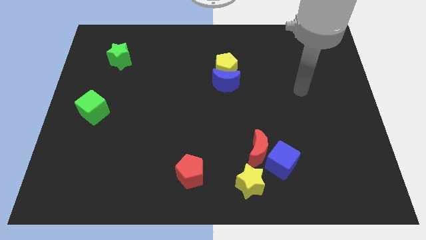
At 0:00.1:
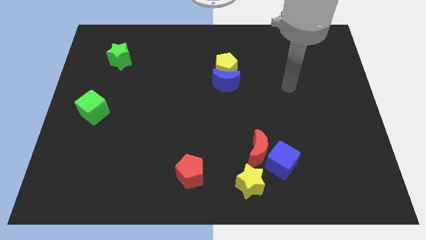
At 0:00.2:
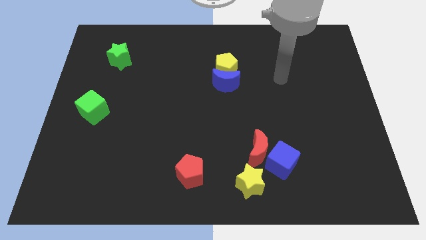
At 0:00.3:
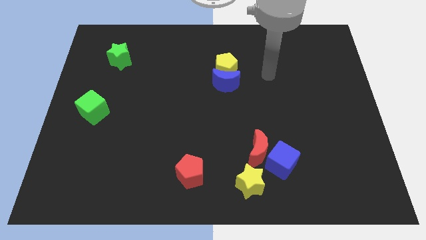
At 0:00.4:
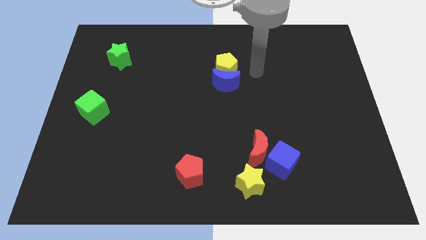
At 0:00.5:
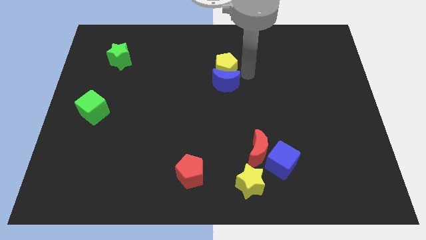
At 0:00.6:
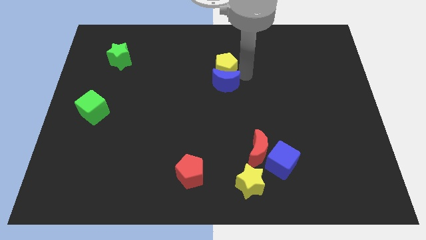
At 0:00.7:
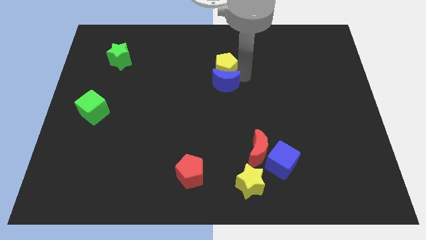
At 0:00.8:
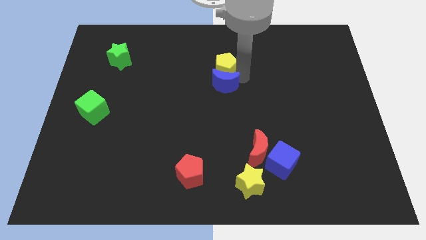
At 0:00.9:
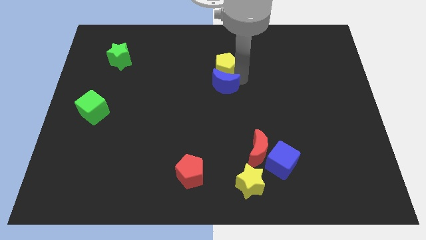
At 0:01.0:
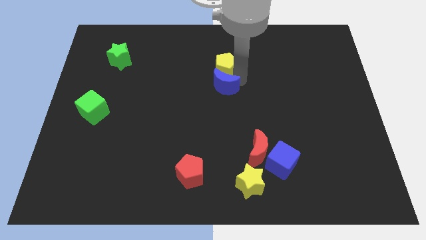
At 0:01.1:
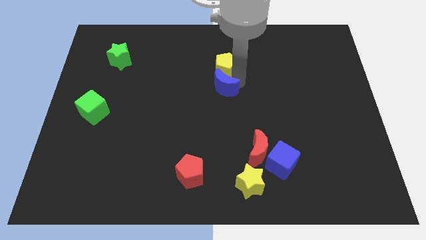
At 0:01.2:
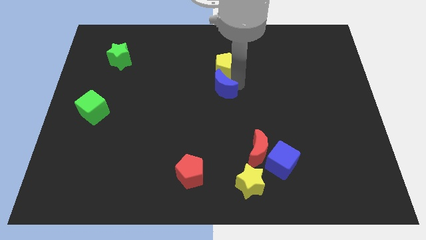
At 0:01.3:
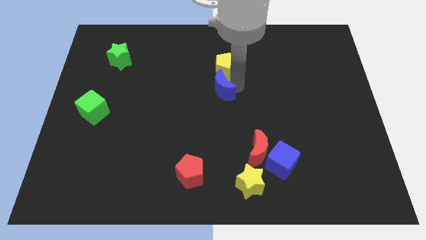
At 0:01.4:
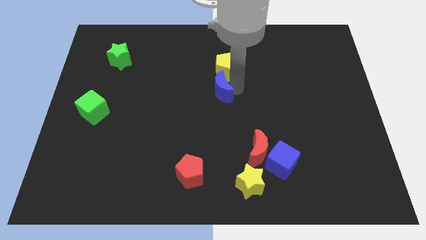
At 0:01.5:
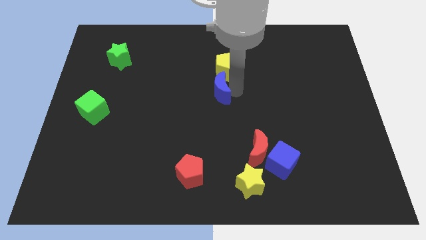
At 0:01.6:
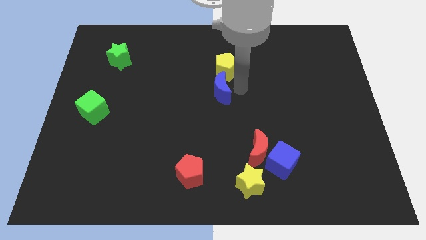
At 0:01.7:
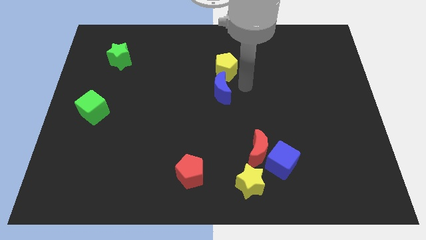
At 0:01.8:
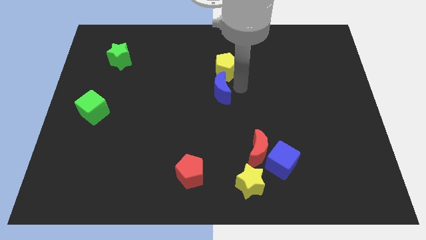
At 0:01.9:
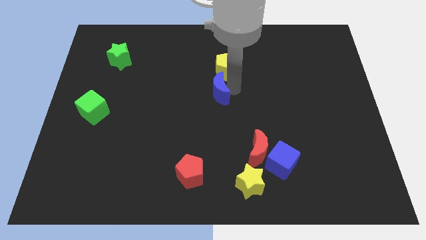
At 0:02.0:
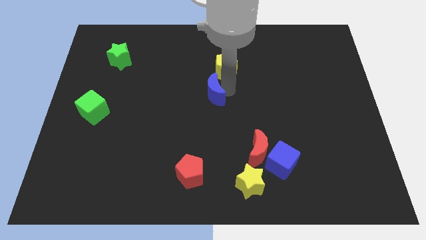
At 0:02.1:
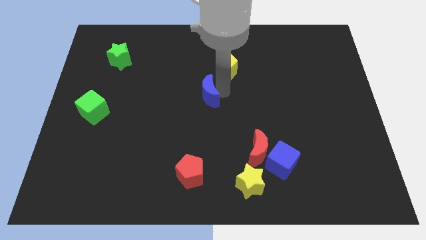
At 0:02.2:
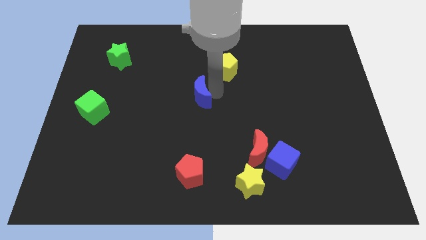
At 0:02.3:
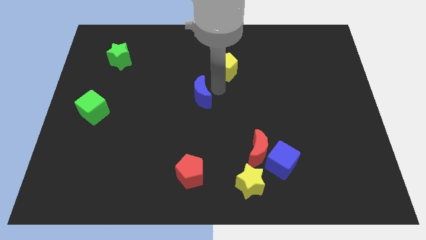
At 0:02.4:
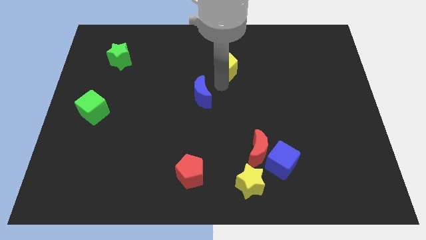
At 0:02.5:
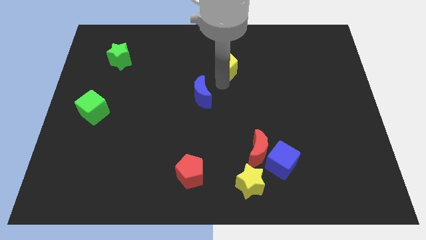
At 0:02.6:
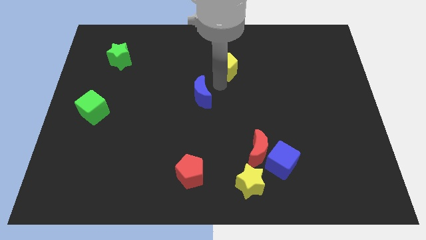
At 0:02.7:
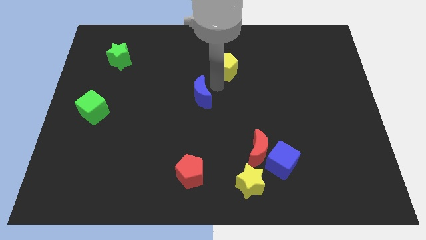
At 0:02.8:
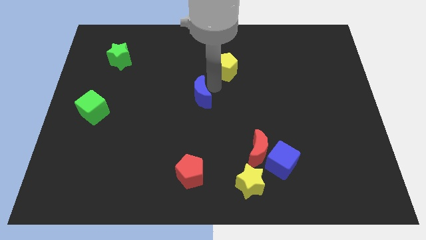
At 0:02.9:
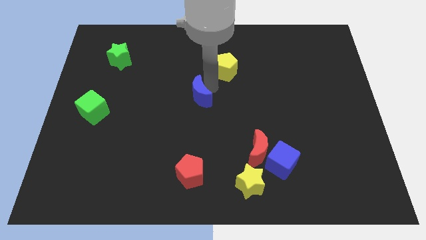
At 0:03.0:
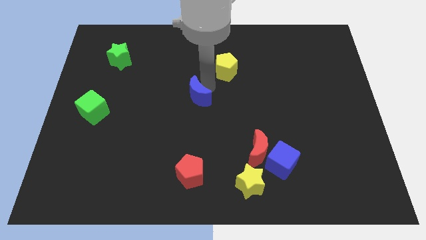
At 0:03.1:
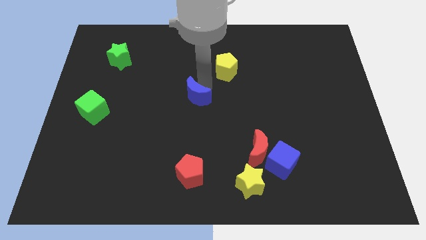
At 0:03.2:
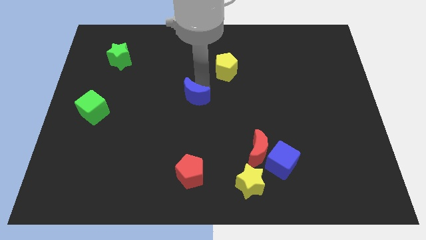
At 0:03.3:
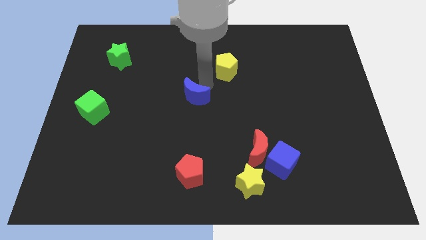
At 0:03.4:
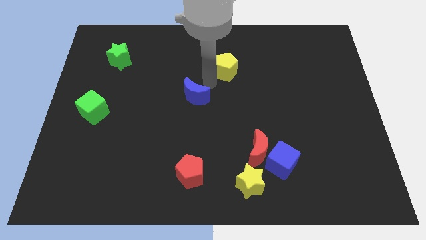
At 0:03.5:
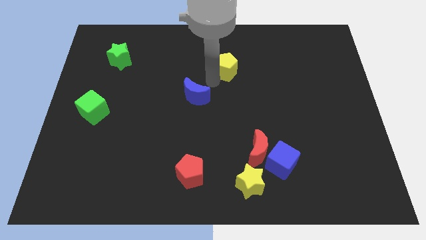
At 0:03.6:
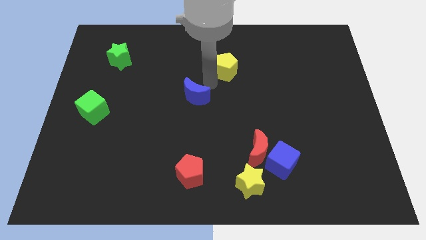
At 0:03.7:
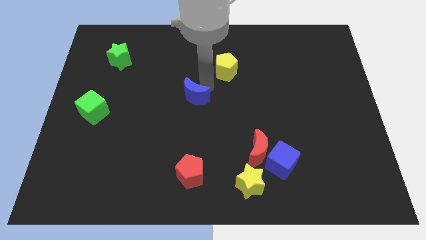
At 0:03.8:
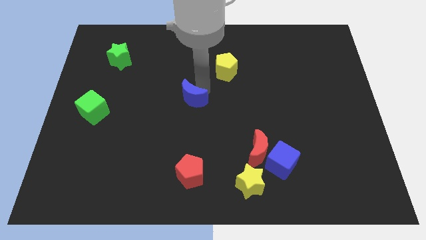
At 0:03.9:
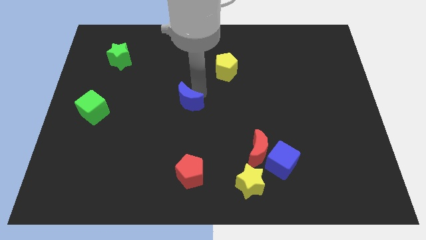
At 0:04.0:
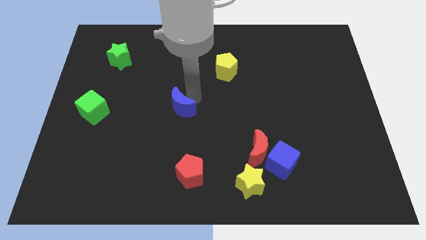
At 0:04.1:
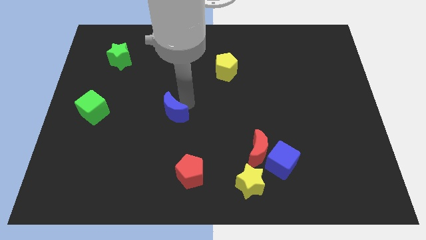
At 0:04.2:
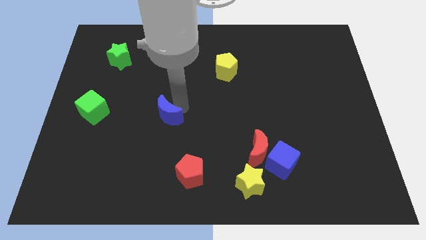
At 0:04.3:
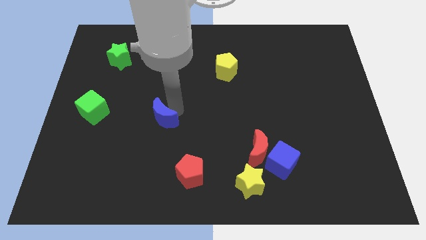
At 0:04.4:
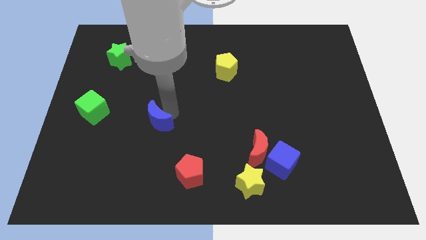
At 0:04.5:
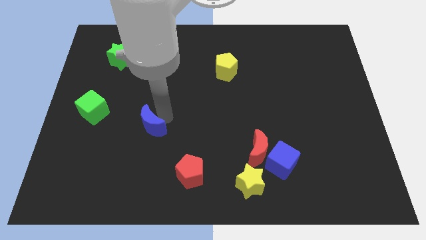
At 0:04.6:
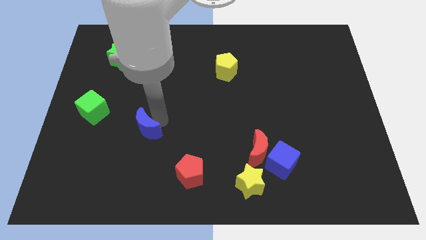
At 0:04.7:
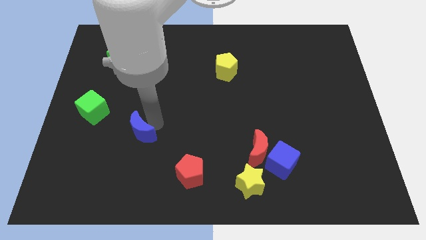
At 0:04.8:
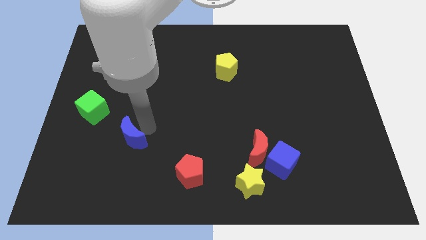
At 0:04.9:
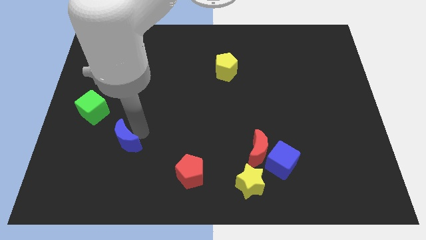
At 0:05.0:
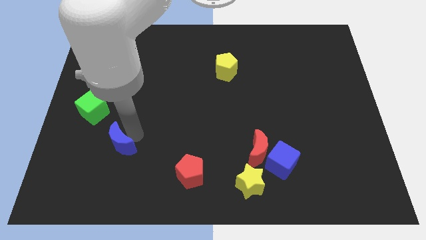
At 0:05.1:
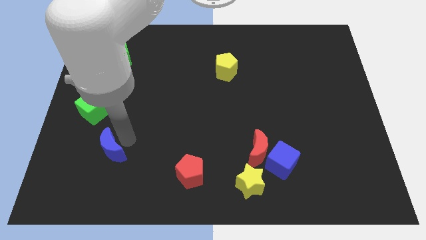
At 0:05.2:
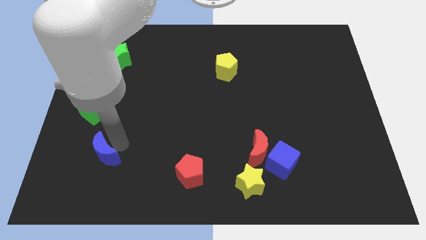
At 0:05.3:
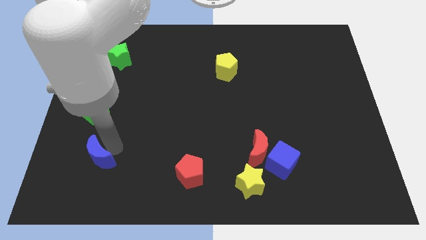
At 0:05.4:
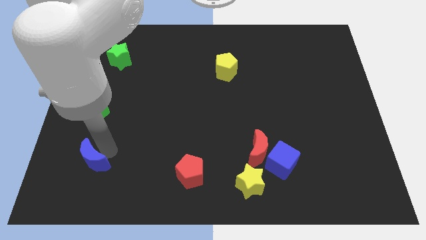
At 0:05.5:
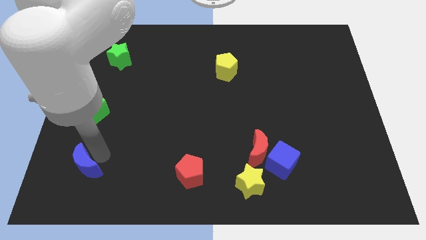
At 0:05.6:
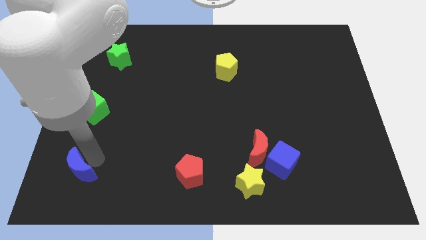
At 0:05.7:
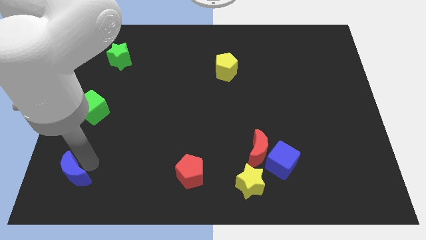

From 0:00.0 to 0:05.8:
push the blue moon to the bottom left corner
